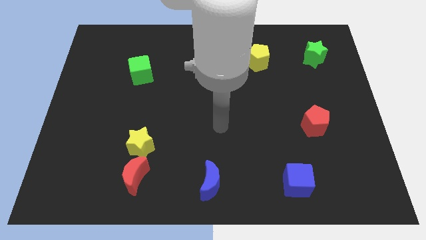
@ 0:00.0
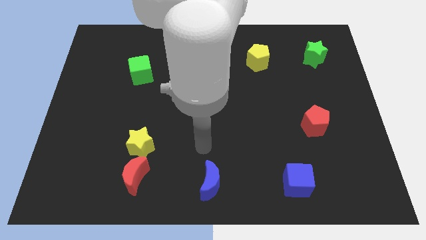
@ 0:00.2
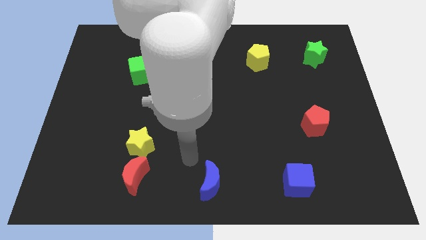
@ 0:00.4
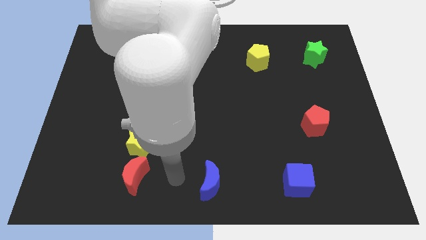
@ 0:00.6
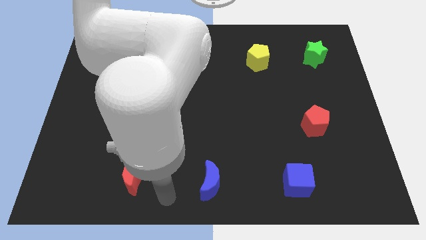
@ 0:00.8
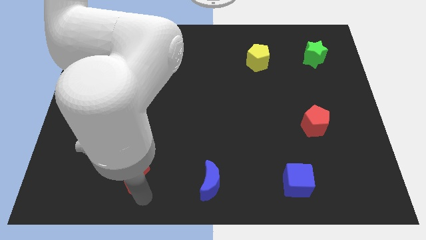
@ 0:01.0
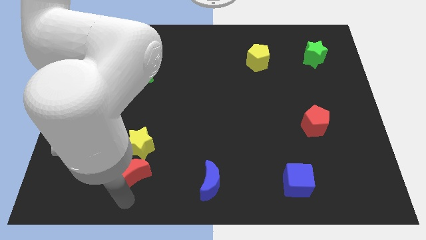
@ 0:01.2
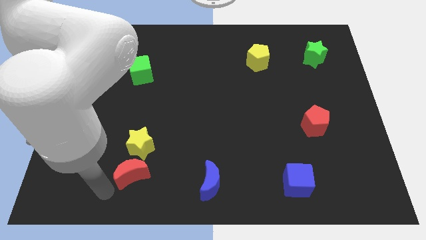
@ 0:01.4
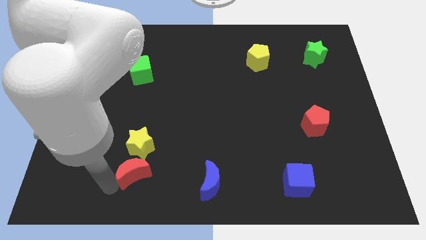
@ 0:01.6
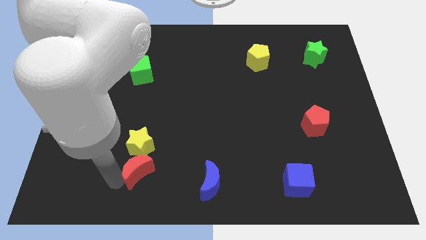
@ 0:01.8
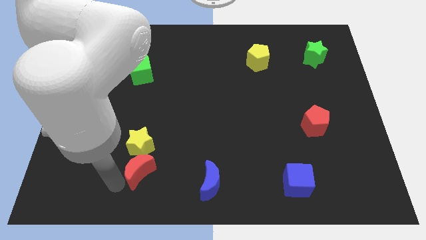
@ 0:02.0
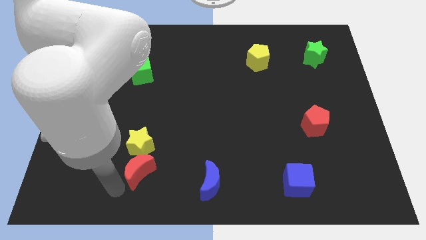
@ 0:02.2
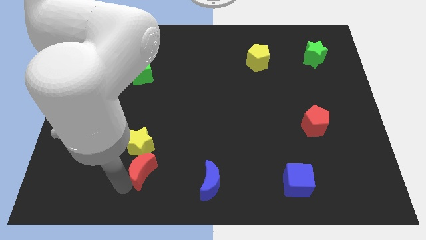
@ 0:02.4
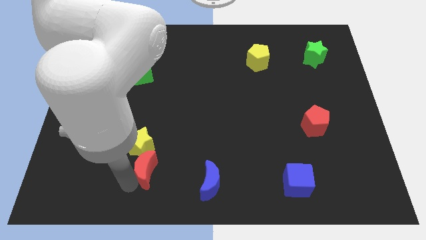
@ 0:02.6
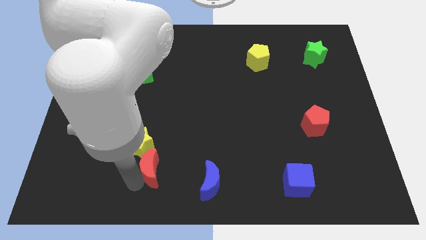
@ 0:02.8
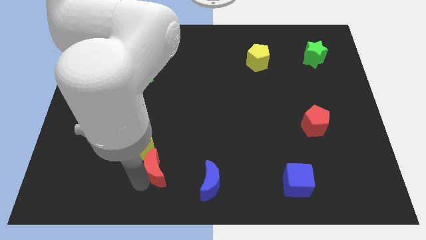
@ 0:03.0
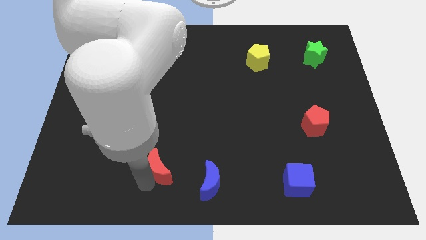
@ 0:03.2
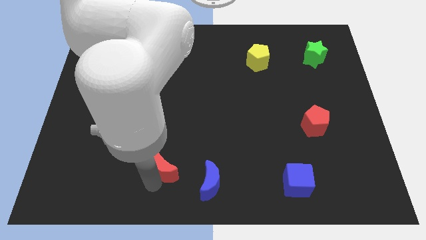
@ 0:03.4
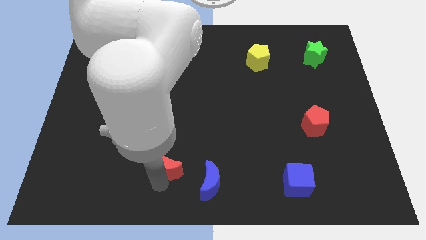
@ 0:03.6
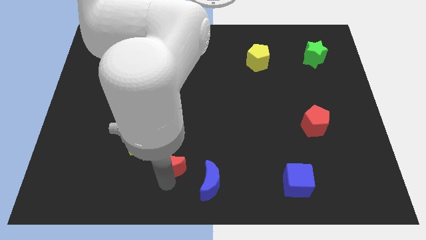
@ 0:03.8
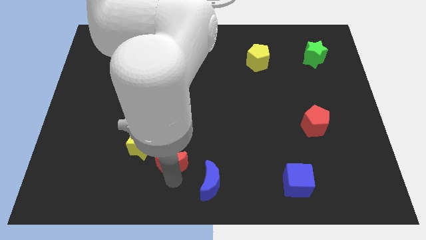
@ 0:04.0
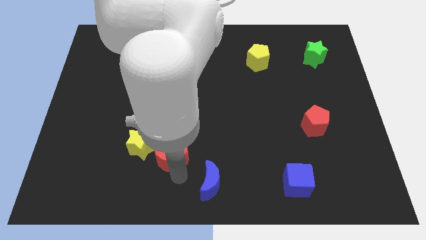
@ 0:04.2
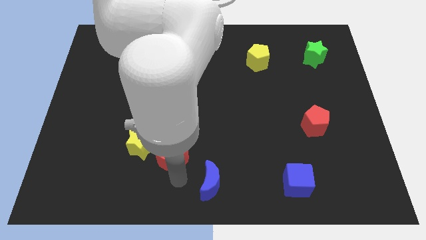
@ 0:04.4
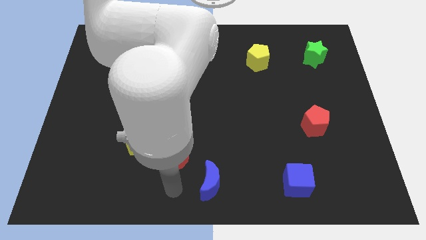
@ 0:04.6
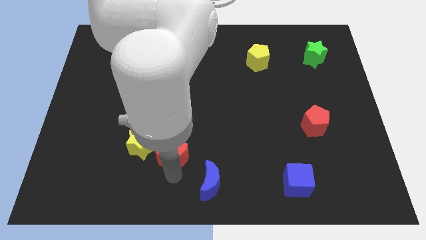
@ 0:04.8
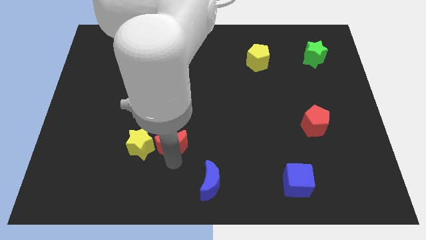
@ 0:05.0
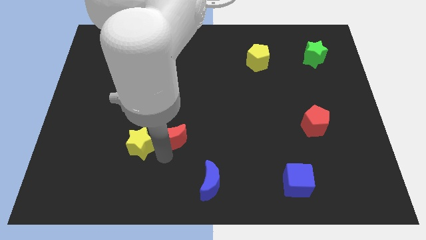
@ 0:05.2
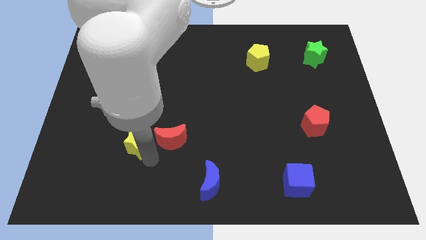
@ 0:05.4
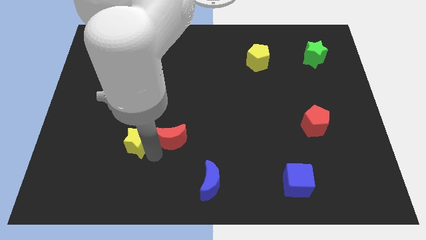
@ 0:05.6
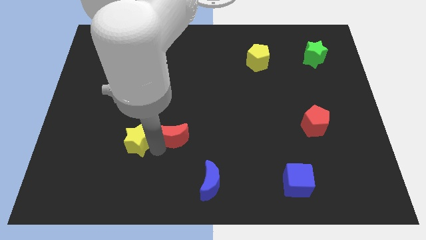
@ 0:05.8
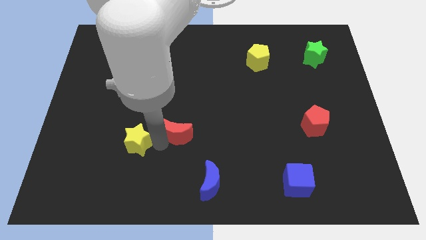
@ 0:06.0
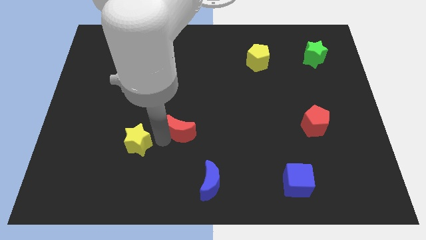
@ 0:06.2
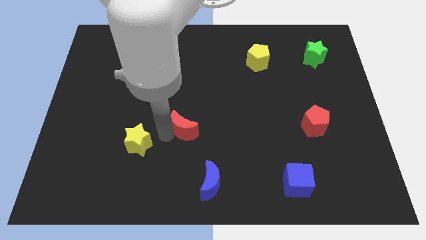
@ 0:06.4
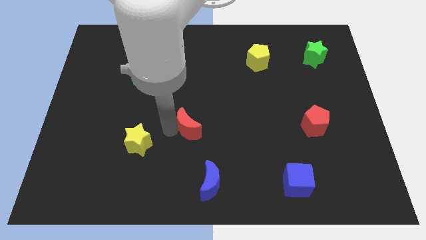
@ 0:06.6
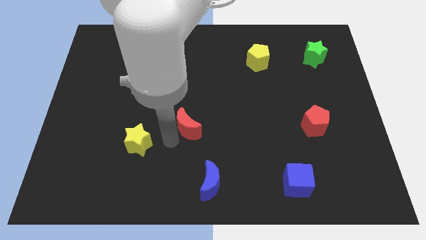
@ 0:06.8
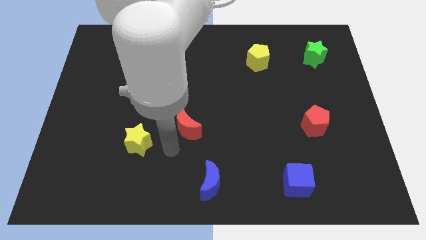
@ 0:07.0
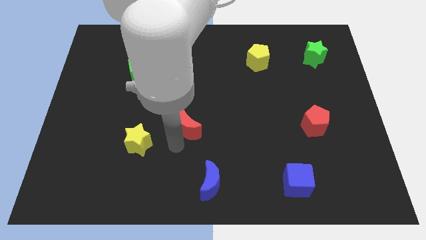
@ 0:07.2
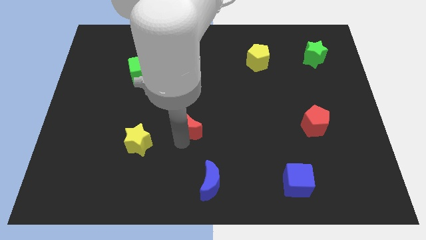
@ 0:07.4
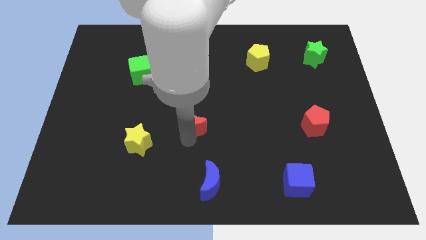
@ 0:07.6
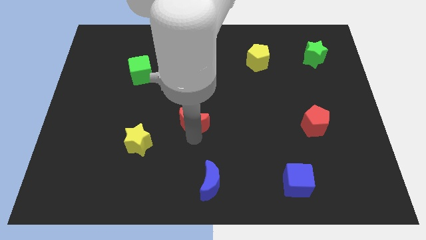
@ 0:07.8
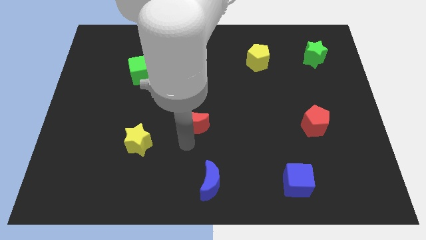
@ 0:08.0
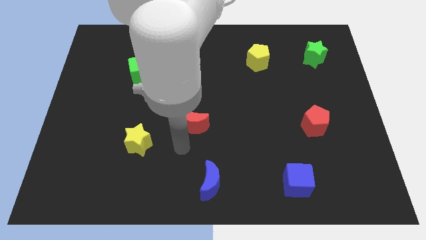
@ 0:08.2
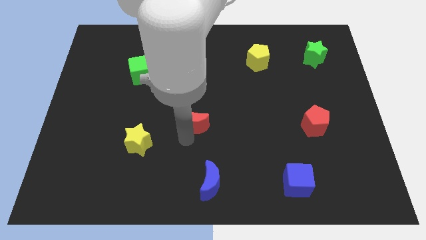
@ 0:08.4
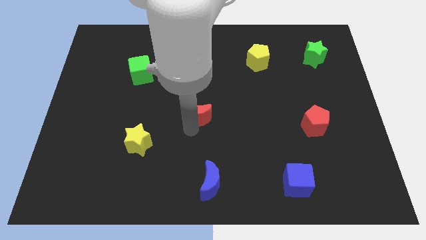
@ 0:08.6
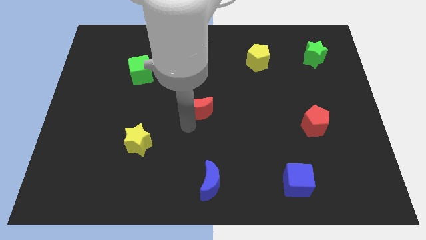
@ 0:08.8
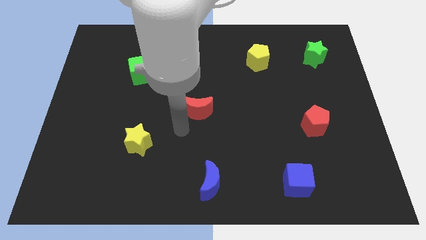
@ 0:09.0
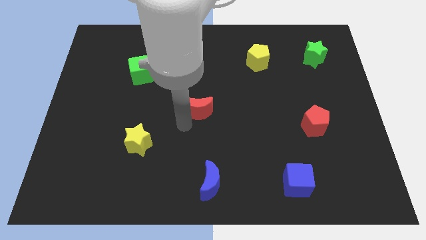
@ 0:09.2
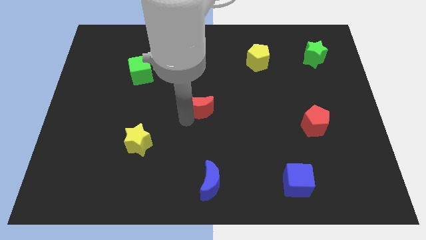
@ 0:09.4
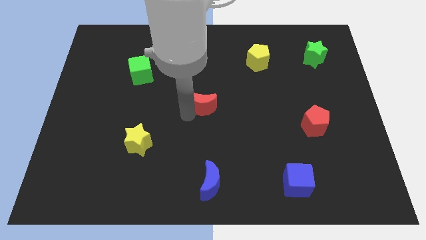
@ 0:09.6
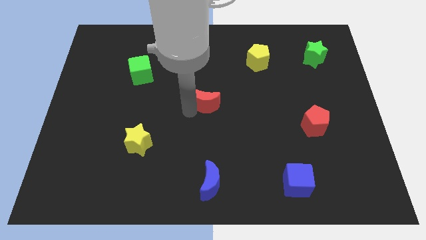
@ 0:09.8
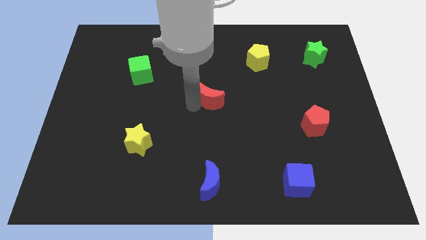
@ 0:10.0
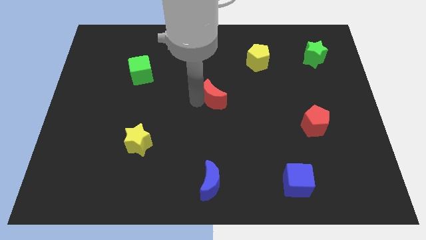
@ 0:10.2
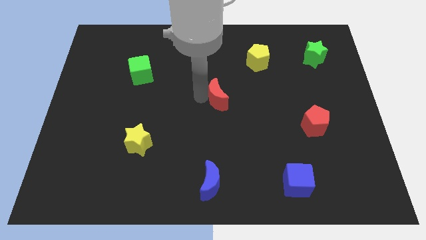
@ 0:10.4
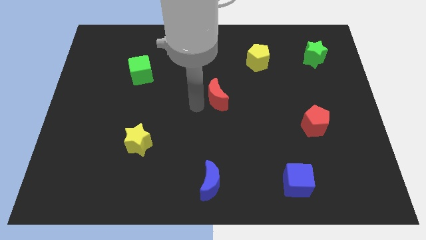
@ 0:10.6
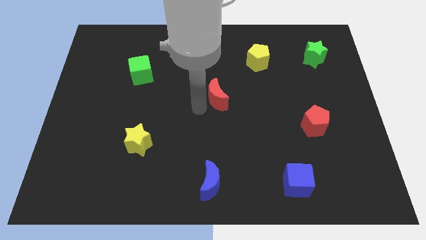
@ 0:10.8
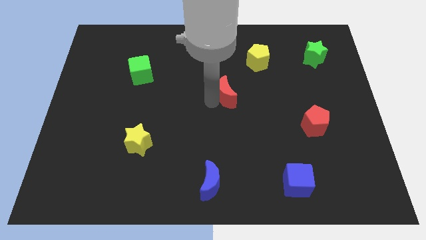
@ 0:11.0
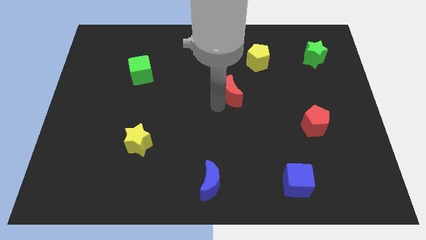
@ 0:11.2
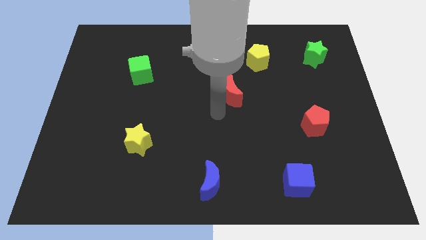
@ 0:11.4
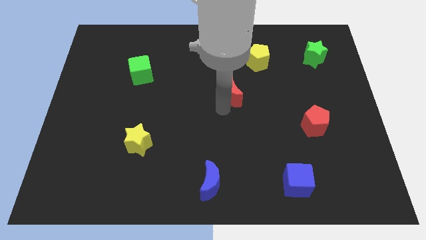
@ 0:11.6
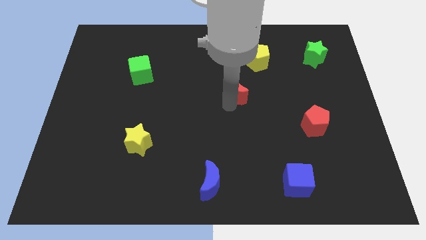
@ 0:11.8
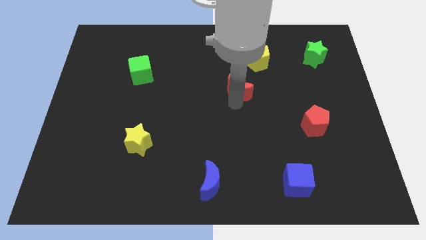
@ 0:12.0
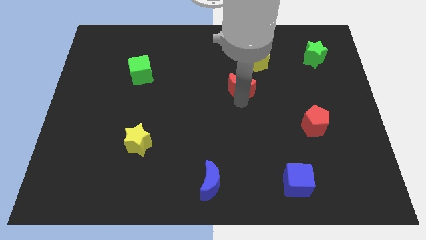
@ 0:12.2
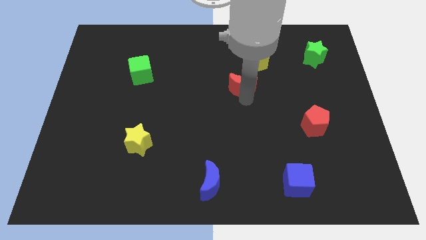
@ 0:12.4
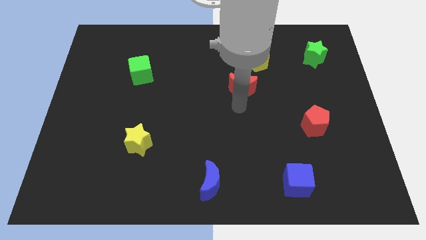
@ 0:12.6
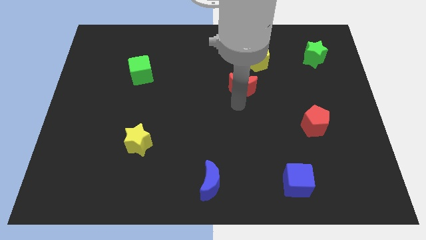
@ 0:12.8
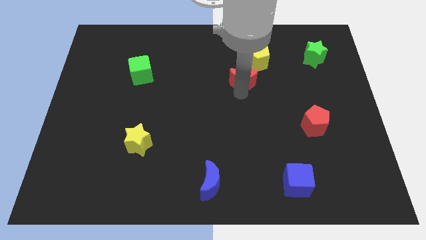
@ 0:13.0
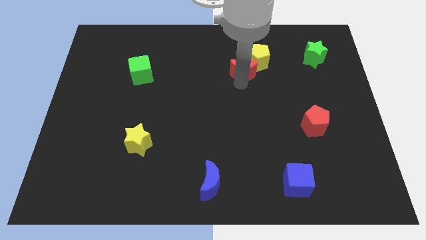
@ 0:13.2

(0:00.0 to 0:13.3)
push the red moon next to the yellow pentagon
